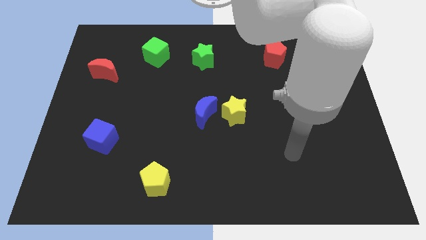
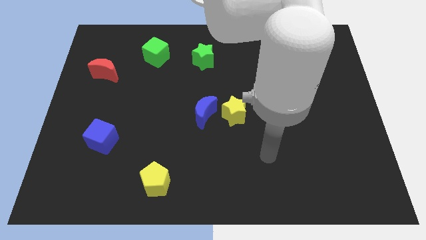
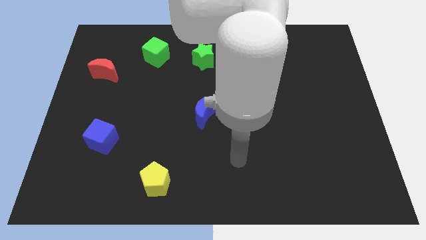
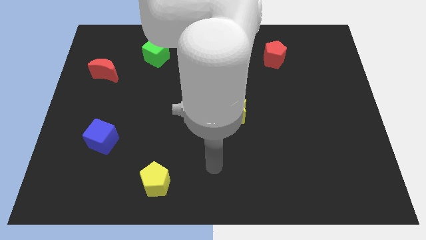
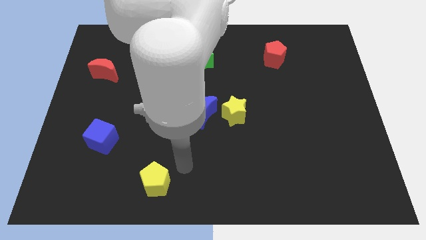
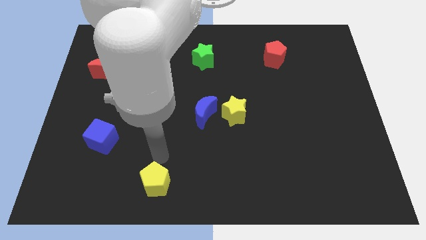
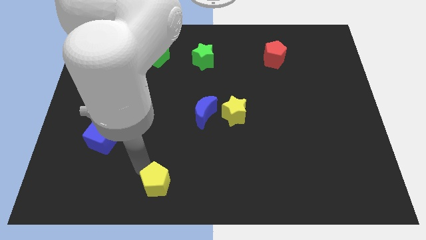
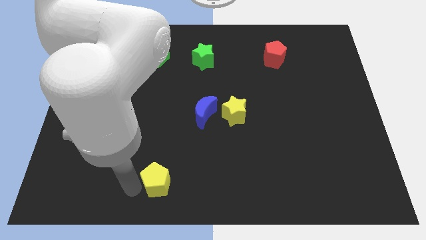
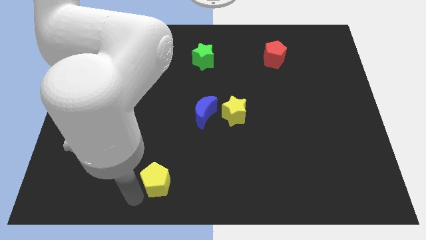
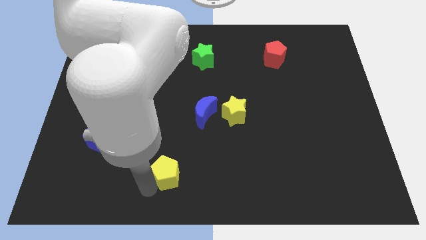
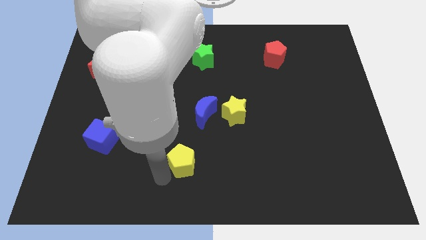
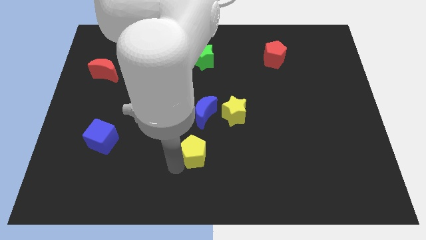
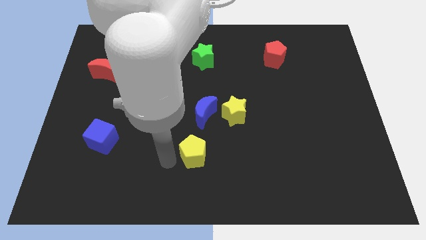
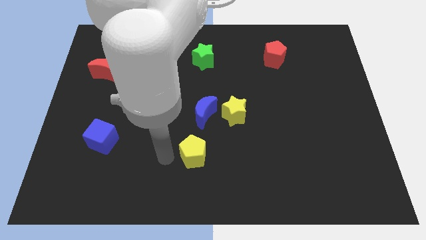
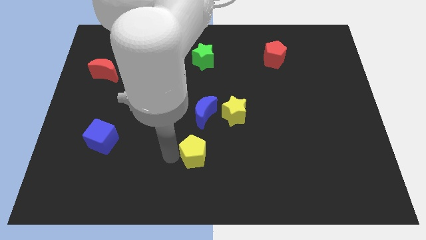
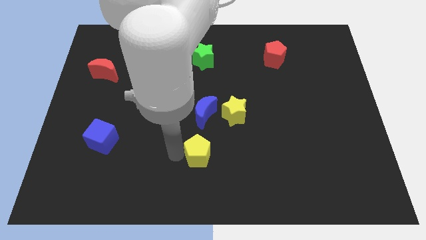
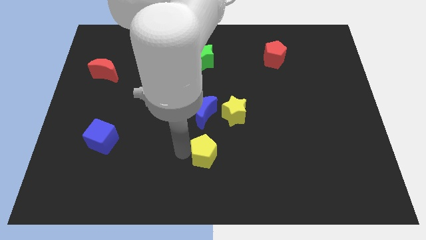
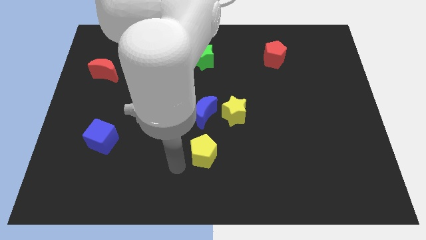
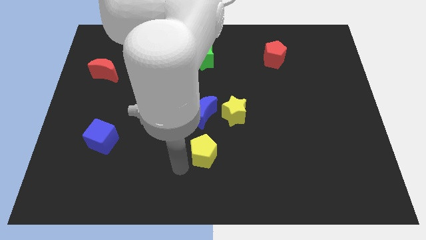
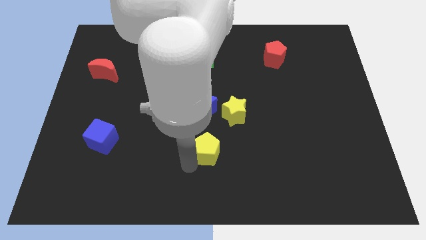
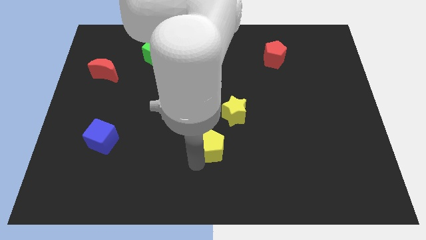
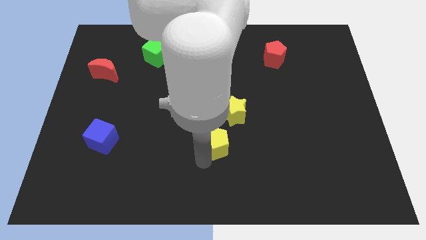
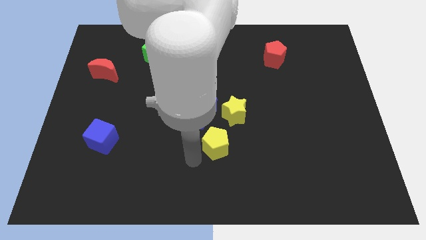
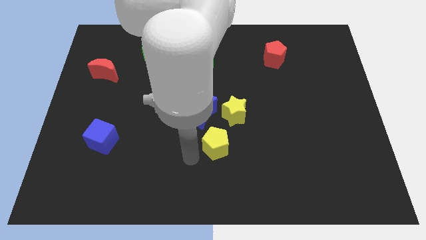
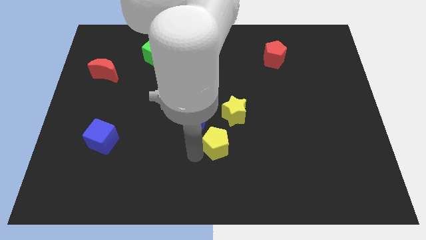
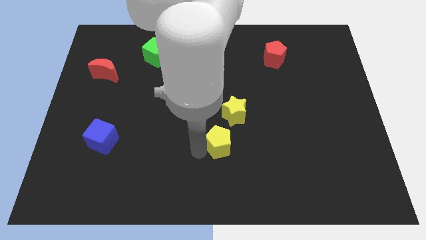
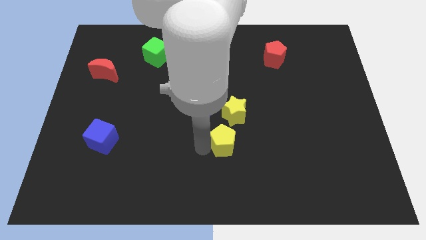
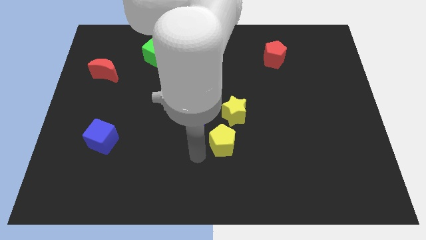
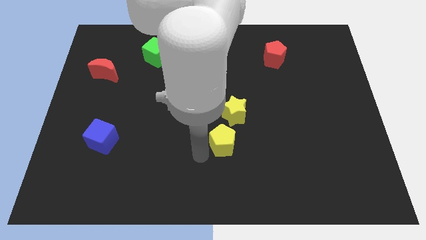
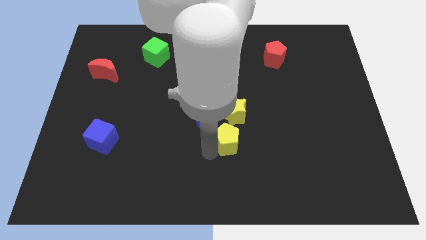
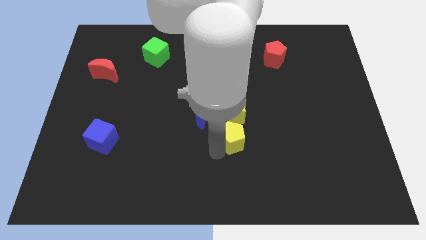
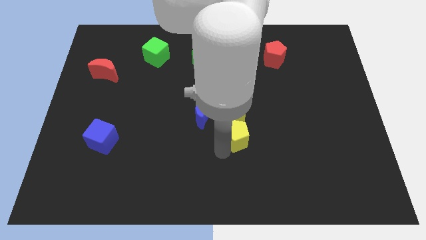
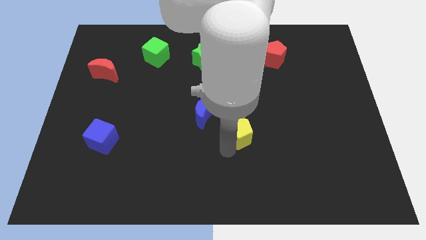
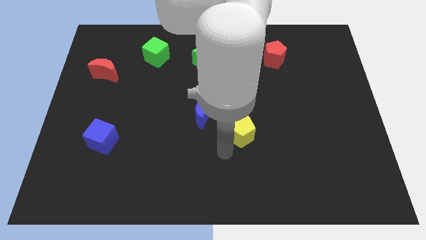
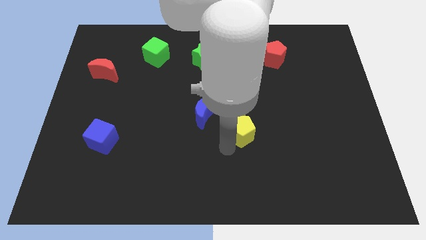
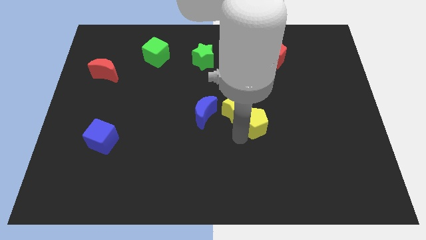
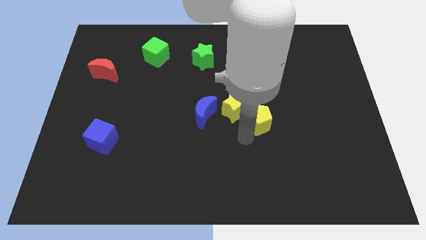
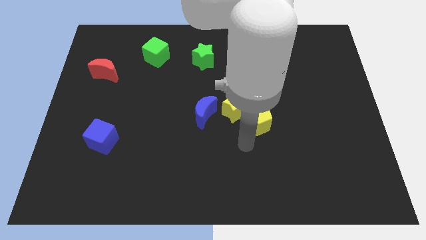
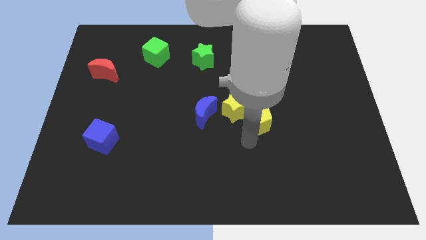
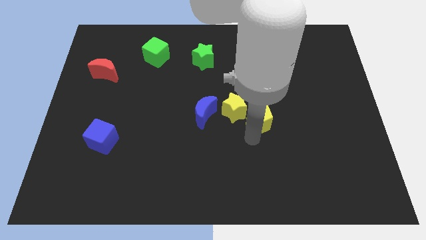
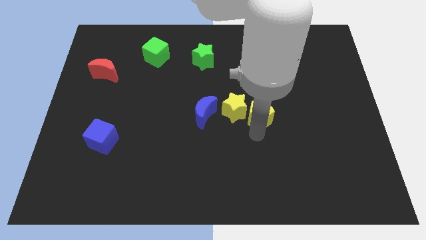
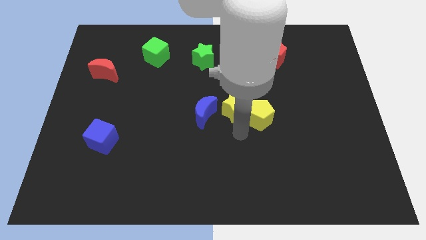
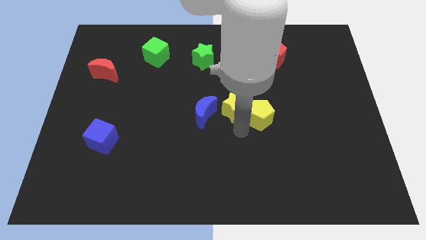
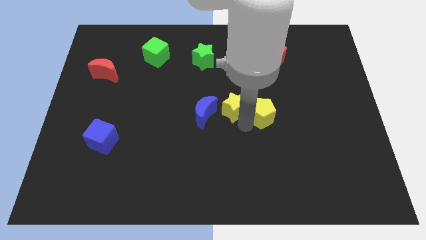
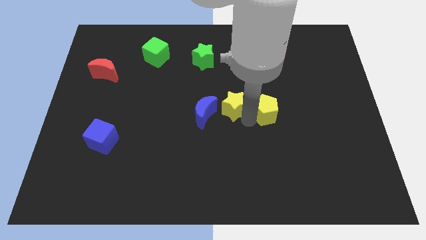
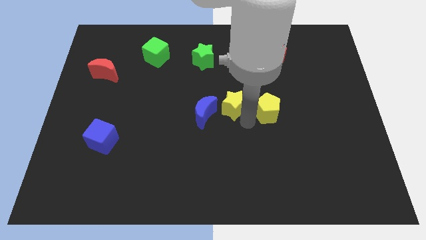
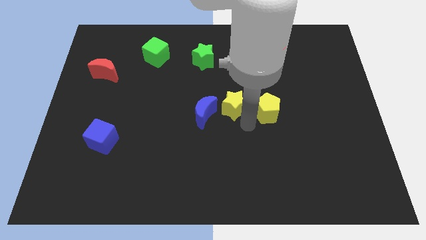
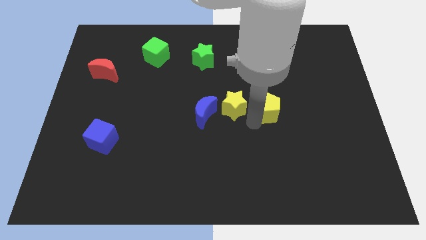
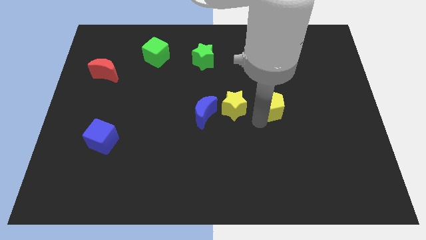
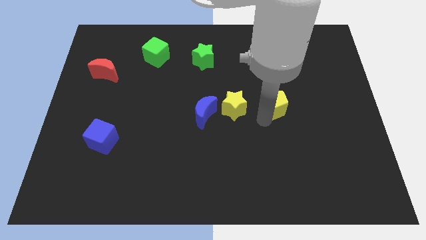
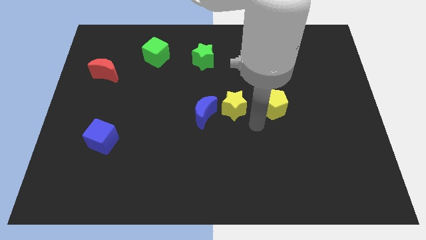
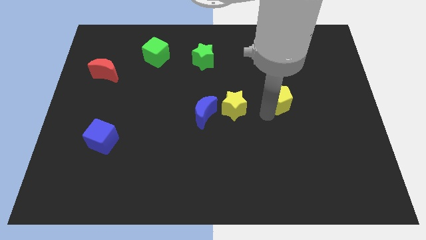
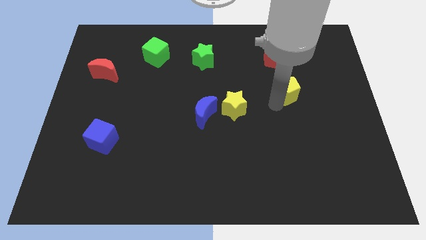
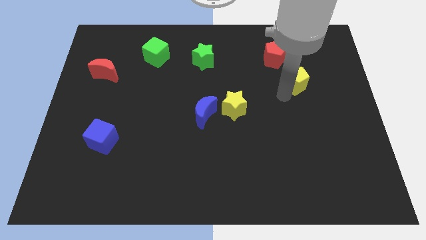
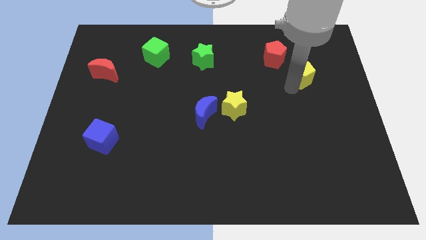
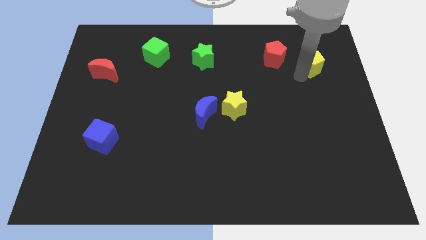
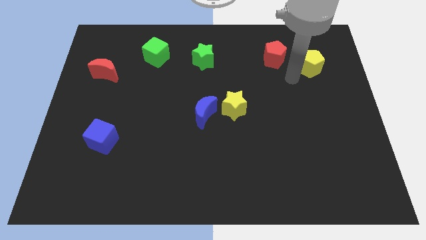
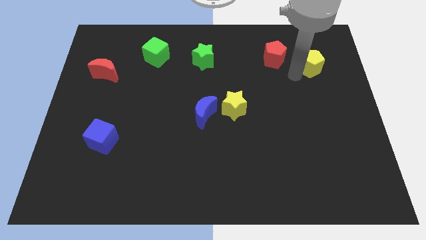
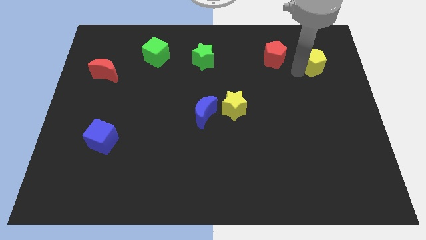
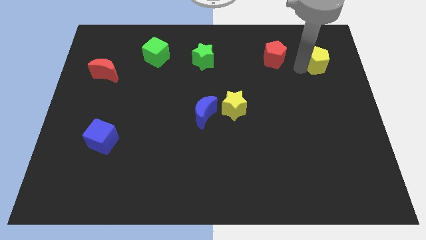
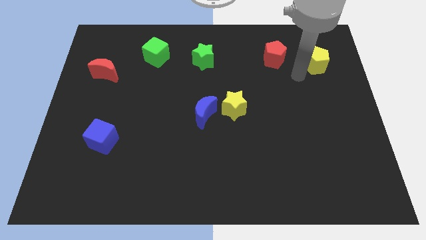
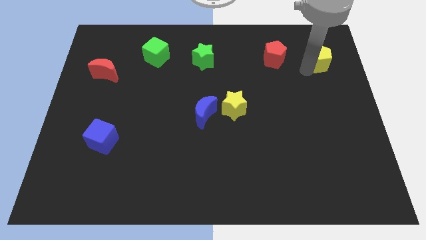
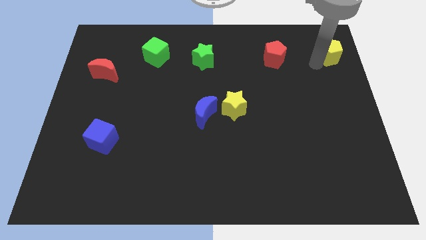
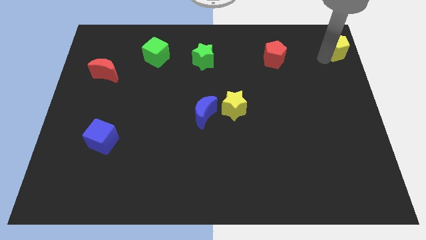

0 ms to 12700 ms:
put the yellow pentagon to the upper right corner
